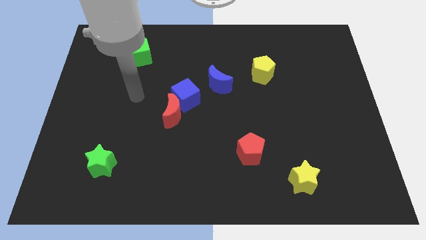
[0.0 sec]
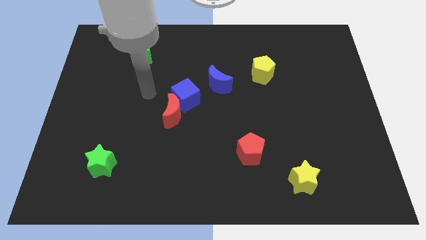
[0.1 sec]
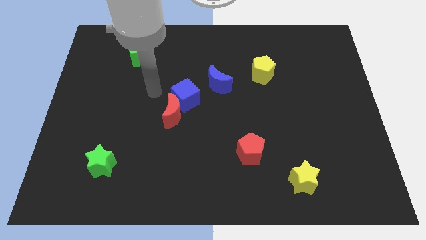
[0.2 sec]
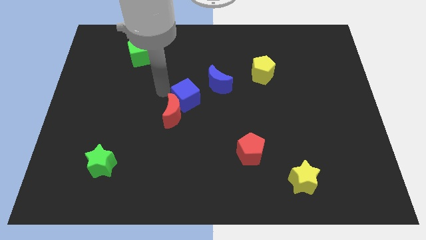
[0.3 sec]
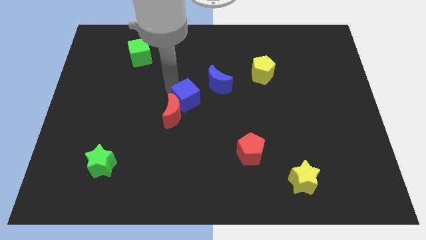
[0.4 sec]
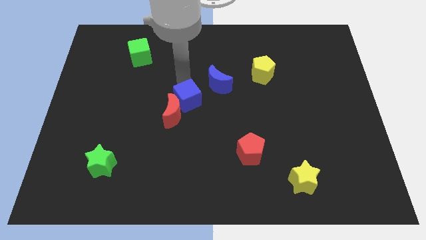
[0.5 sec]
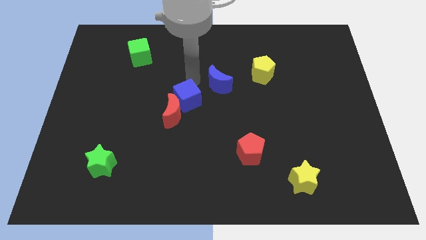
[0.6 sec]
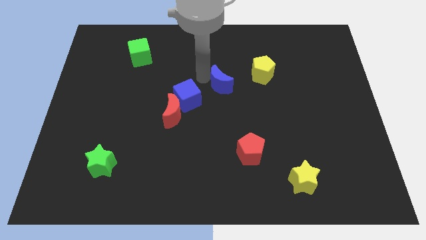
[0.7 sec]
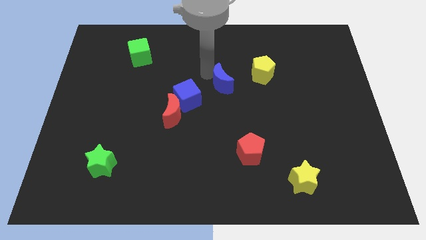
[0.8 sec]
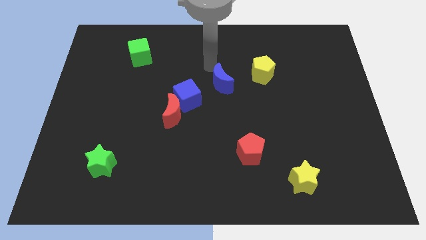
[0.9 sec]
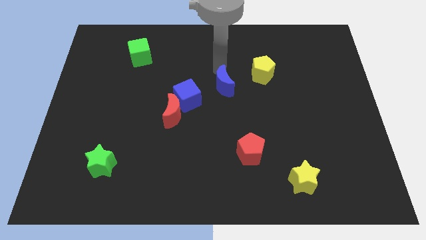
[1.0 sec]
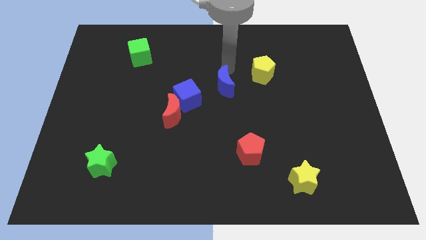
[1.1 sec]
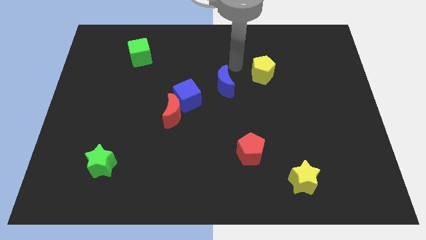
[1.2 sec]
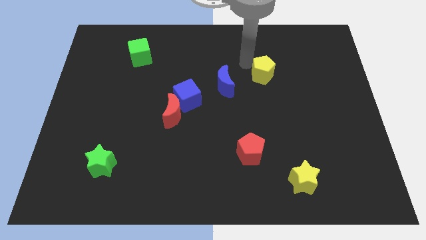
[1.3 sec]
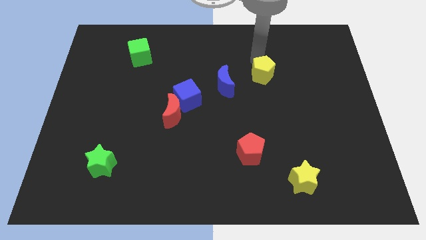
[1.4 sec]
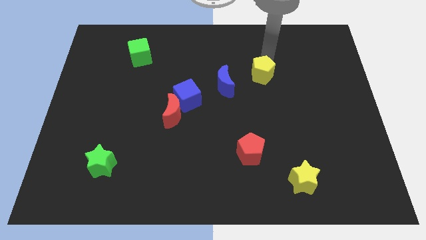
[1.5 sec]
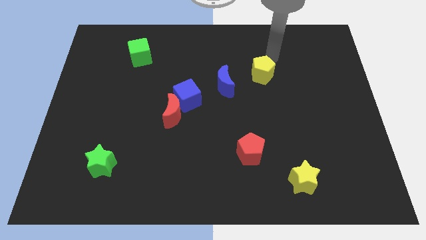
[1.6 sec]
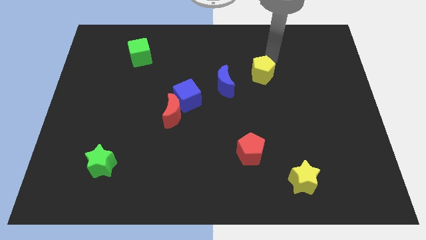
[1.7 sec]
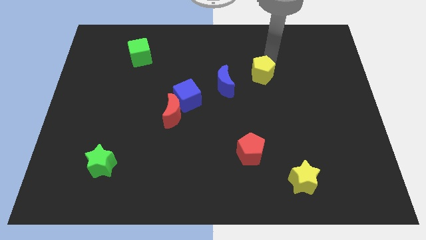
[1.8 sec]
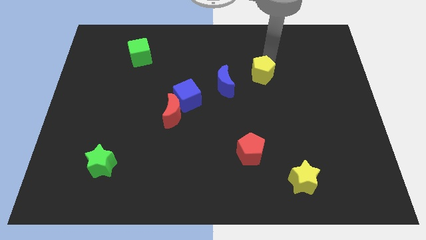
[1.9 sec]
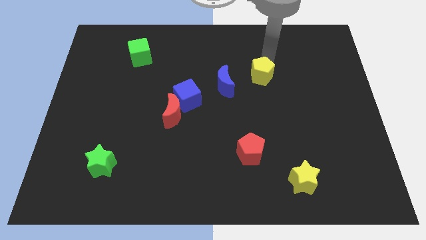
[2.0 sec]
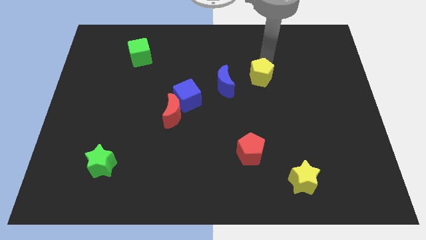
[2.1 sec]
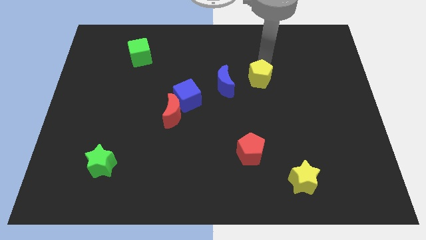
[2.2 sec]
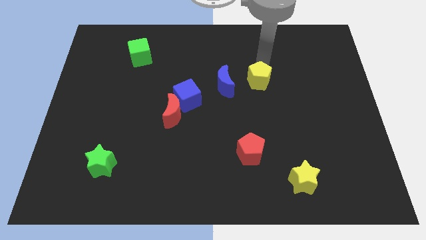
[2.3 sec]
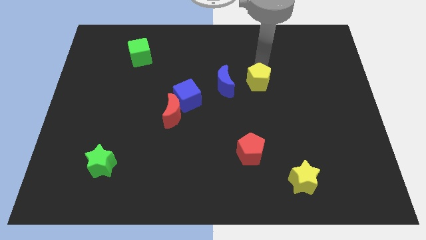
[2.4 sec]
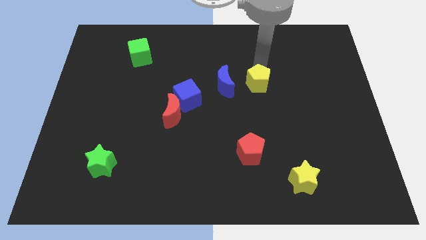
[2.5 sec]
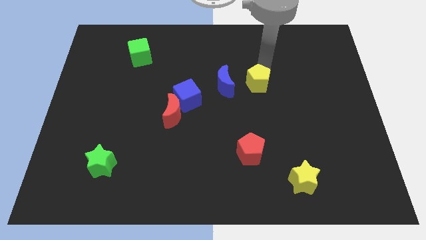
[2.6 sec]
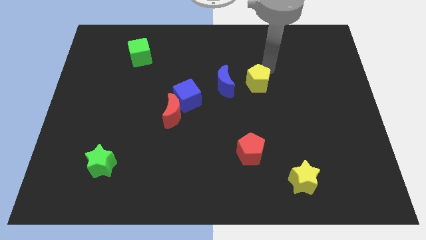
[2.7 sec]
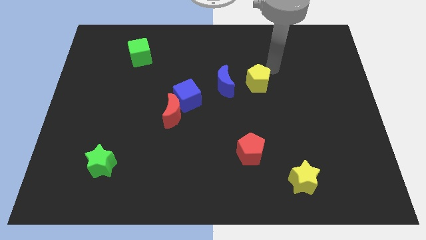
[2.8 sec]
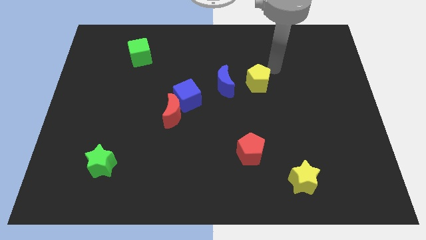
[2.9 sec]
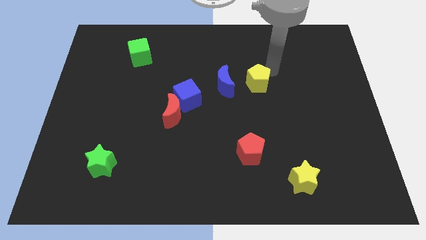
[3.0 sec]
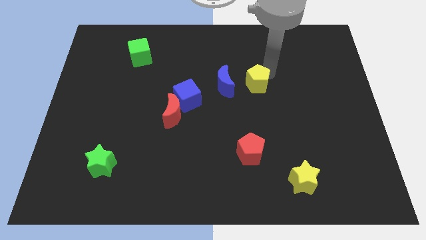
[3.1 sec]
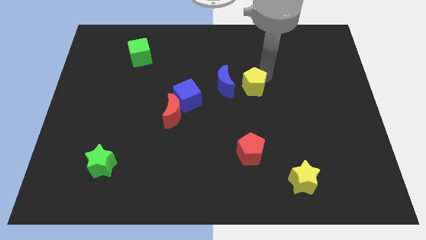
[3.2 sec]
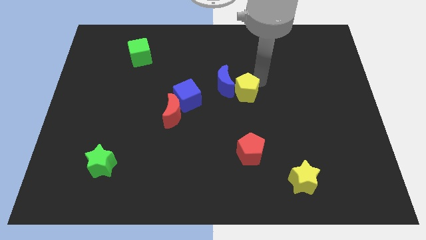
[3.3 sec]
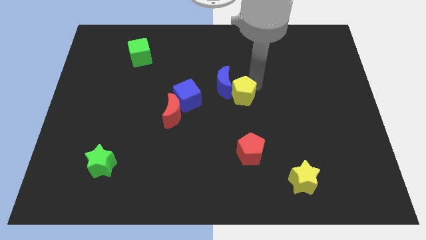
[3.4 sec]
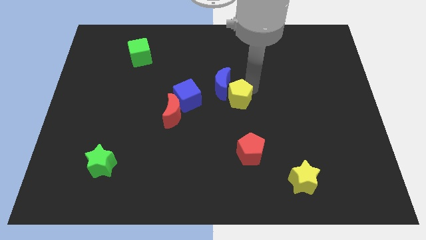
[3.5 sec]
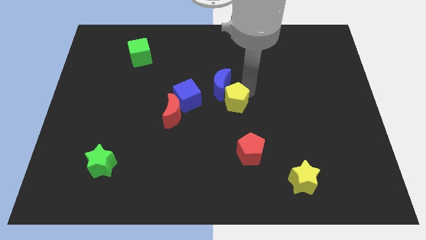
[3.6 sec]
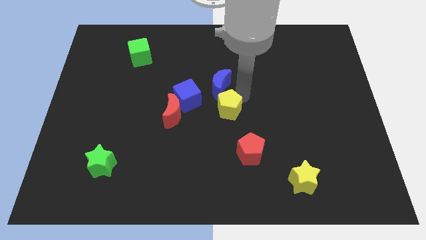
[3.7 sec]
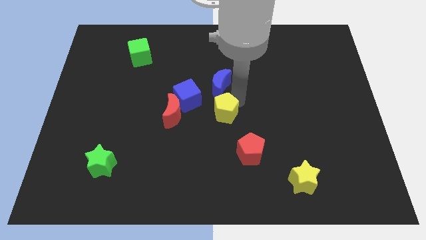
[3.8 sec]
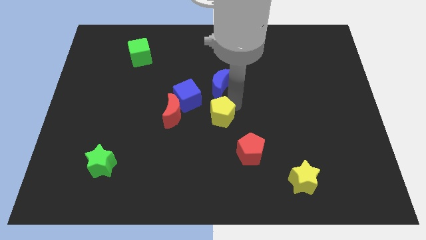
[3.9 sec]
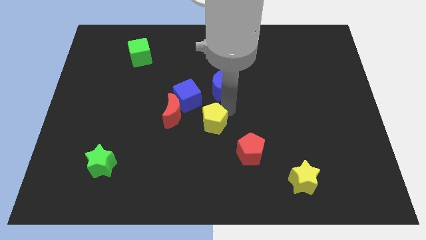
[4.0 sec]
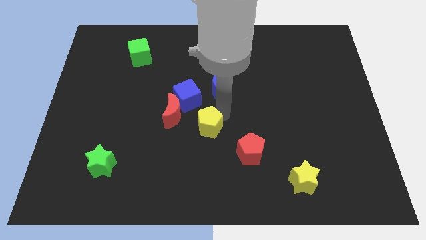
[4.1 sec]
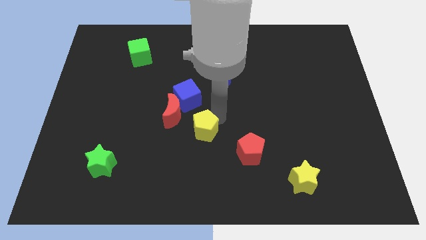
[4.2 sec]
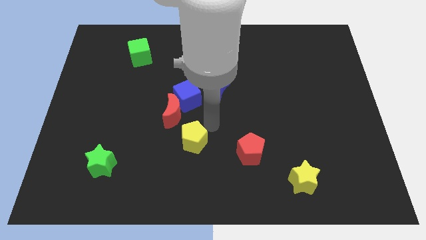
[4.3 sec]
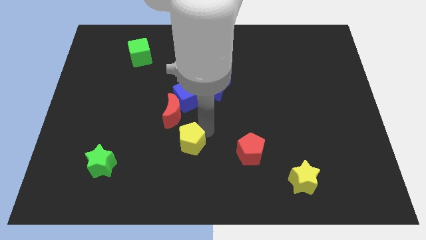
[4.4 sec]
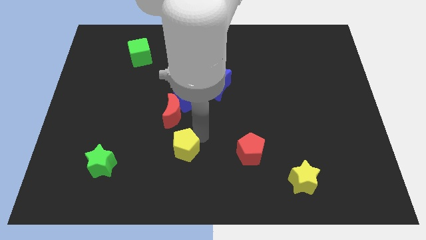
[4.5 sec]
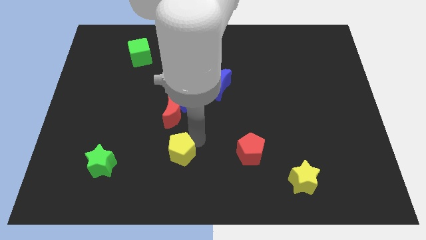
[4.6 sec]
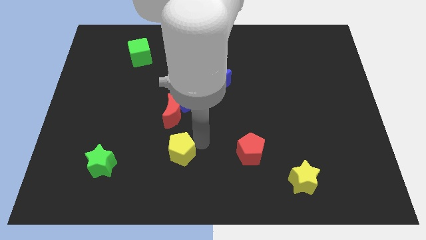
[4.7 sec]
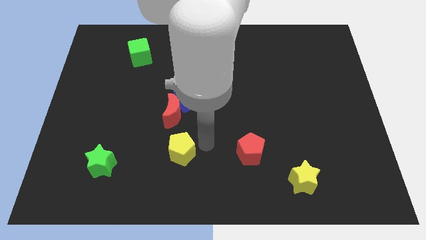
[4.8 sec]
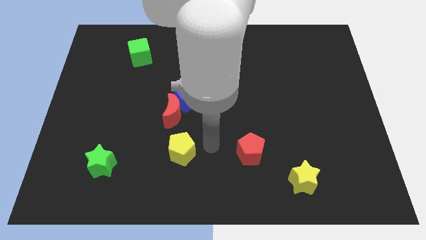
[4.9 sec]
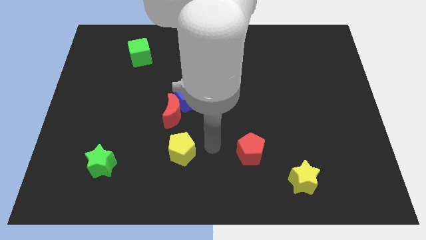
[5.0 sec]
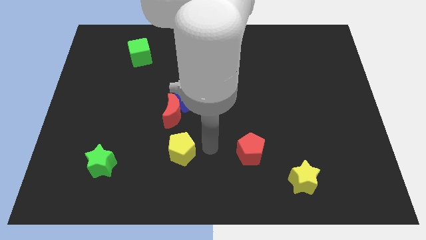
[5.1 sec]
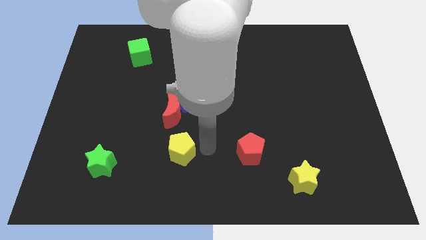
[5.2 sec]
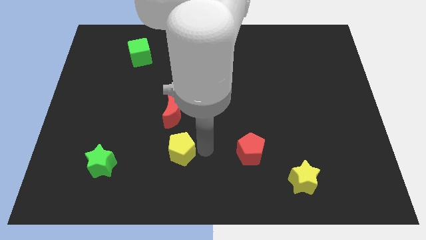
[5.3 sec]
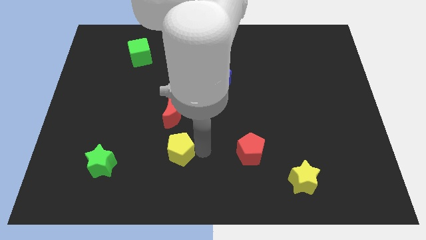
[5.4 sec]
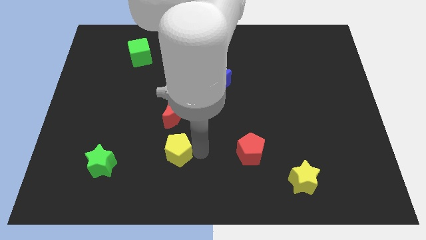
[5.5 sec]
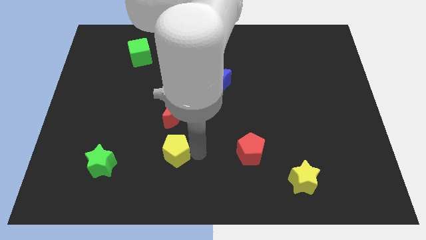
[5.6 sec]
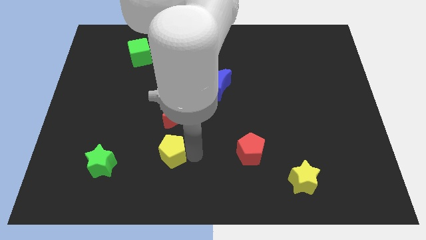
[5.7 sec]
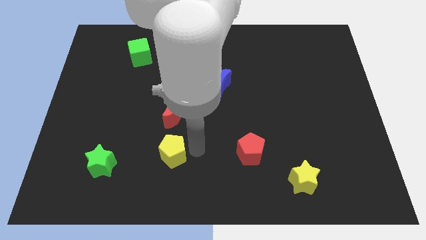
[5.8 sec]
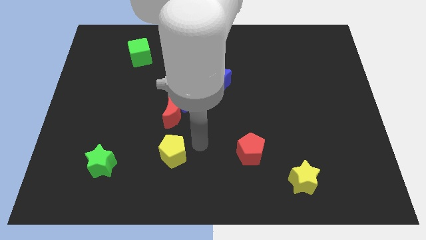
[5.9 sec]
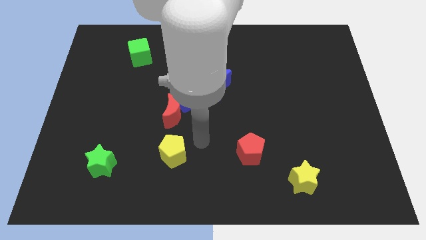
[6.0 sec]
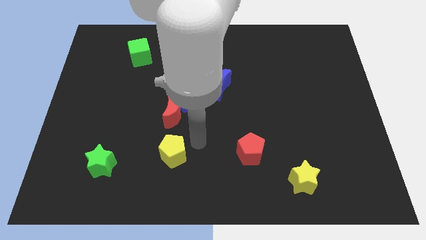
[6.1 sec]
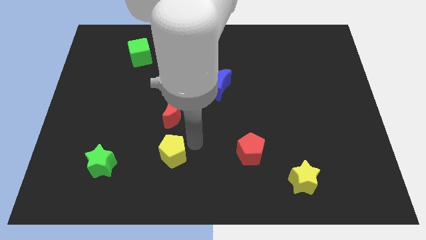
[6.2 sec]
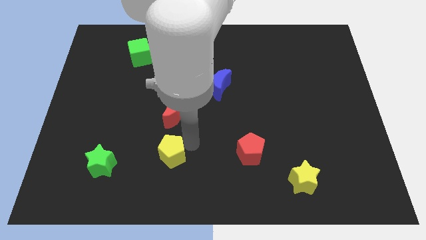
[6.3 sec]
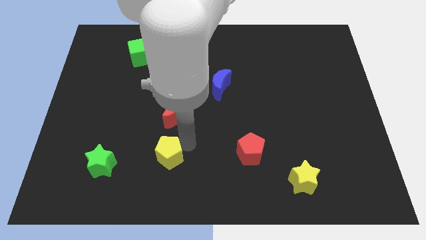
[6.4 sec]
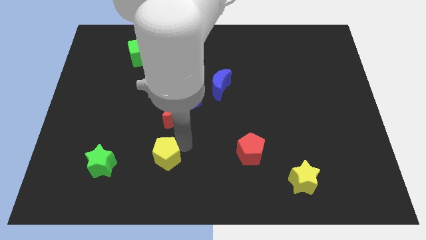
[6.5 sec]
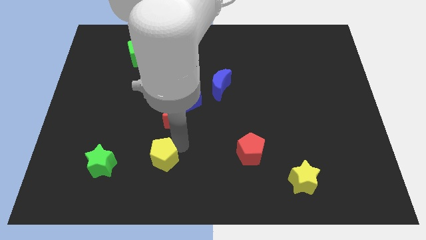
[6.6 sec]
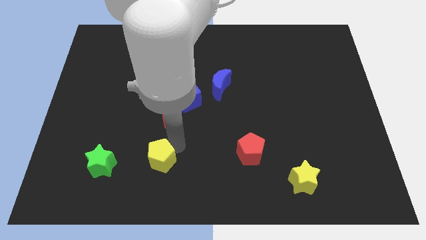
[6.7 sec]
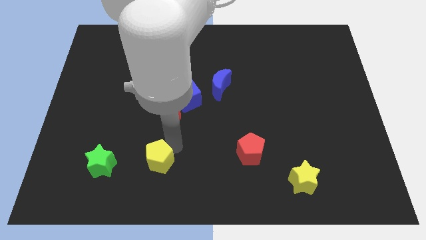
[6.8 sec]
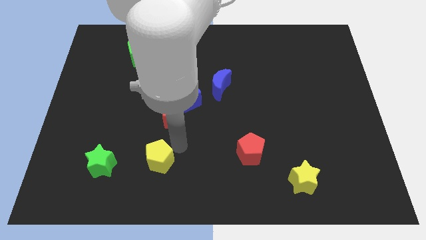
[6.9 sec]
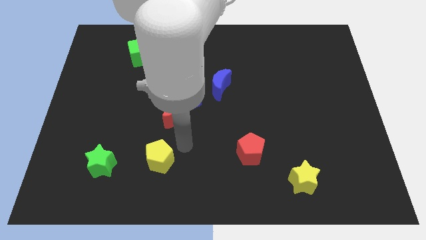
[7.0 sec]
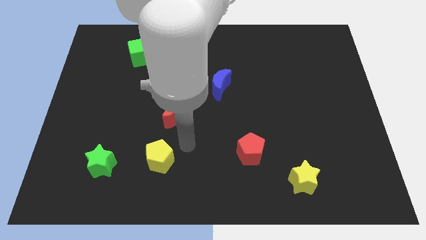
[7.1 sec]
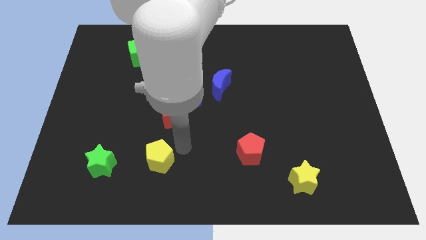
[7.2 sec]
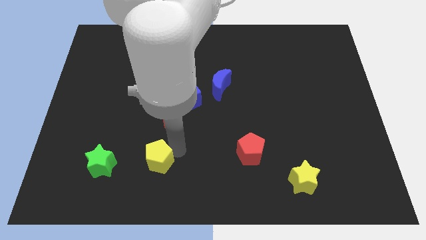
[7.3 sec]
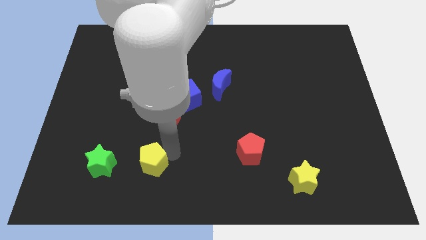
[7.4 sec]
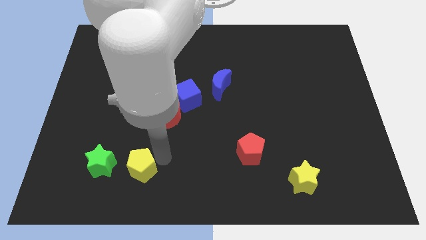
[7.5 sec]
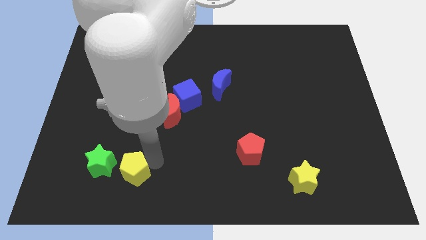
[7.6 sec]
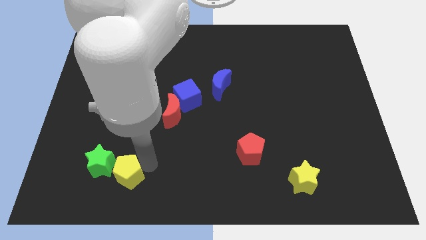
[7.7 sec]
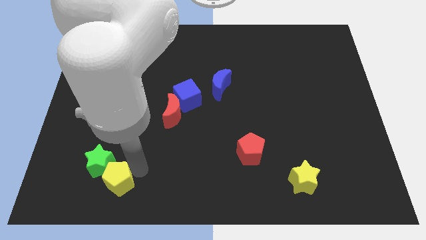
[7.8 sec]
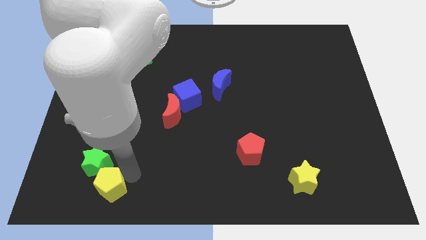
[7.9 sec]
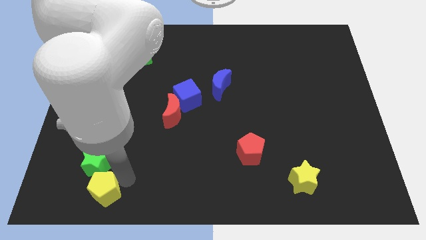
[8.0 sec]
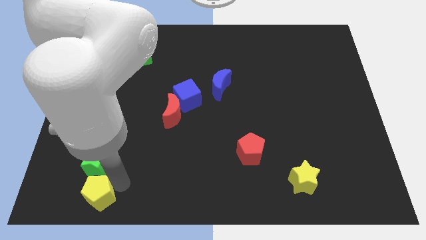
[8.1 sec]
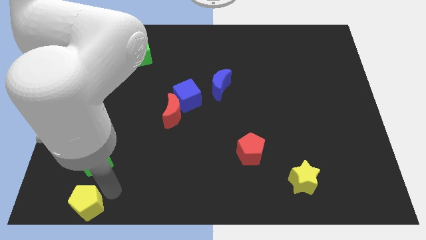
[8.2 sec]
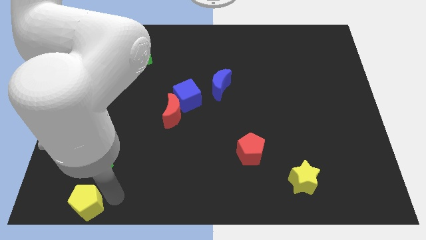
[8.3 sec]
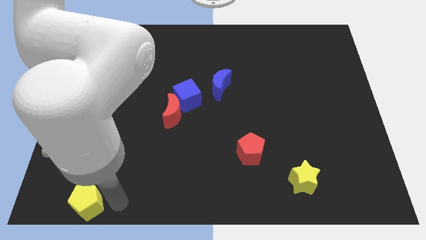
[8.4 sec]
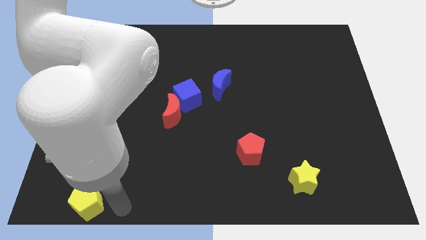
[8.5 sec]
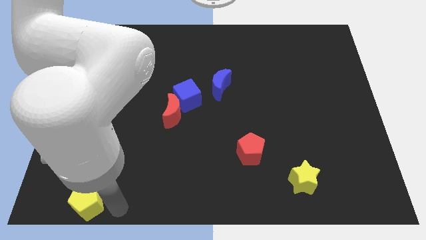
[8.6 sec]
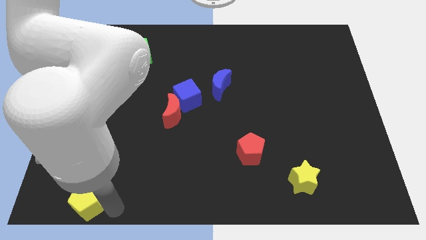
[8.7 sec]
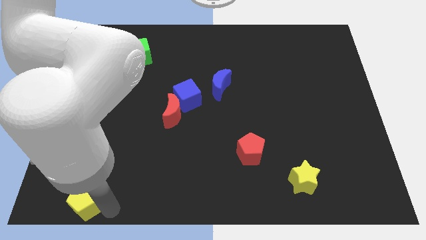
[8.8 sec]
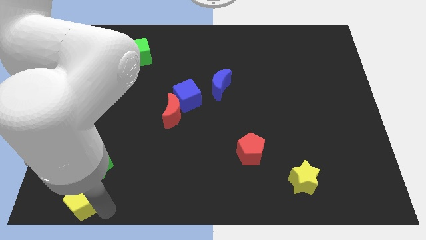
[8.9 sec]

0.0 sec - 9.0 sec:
move the yellow pentagon to the bottom left of the board
